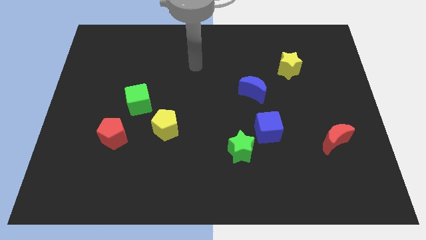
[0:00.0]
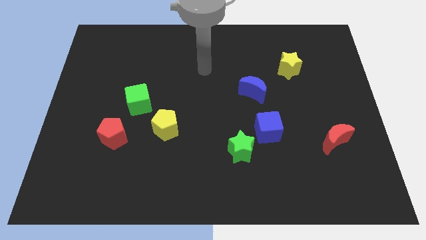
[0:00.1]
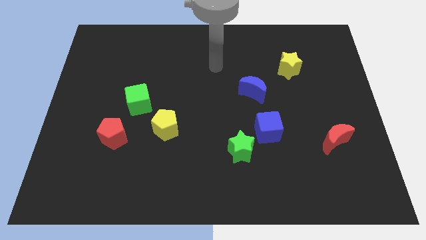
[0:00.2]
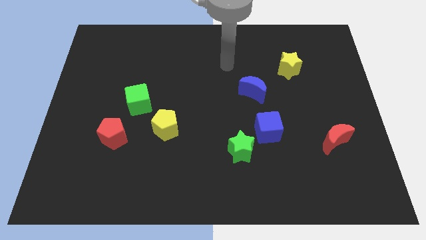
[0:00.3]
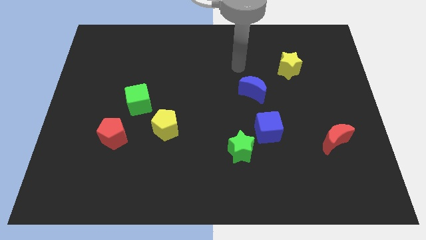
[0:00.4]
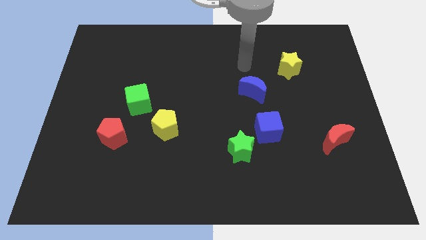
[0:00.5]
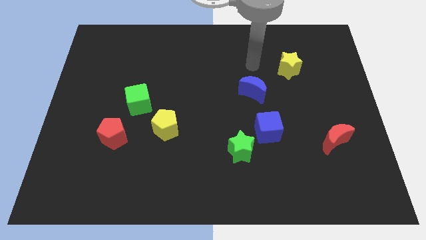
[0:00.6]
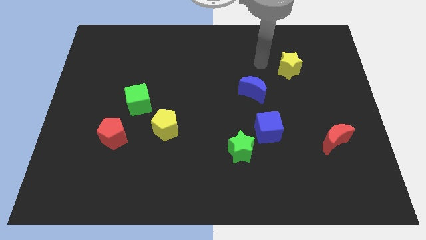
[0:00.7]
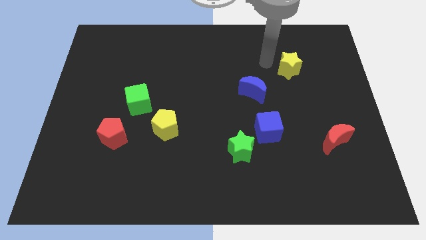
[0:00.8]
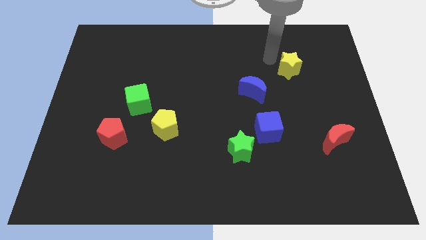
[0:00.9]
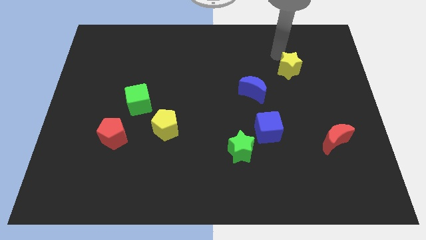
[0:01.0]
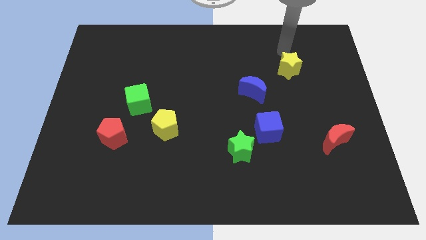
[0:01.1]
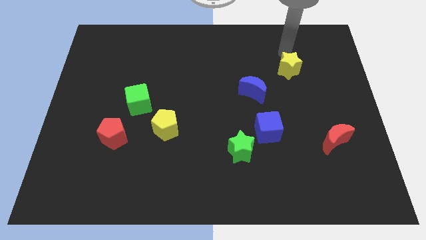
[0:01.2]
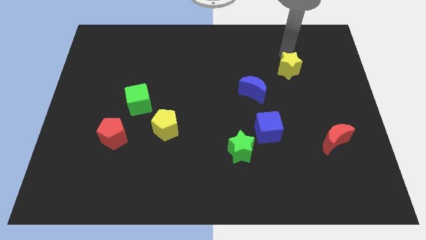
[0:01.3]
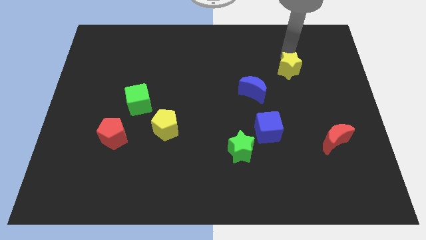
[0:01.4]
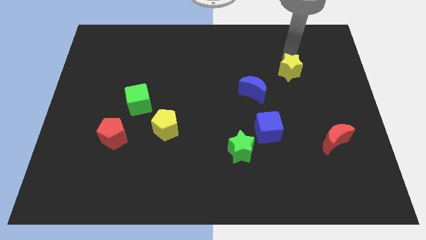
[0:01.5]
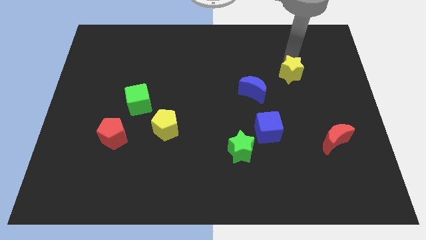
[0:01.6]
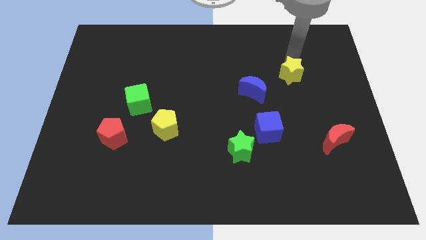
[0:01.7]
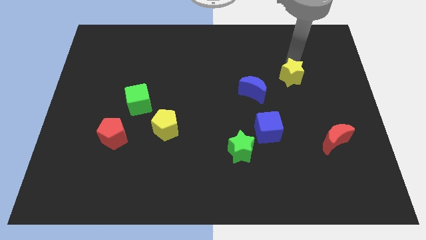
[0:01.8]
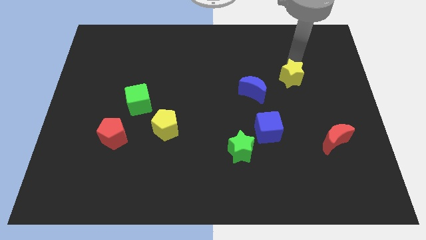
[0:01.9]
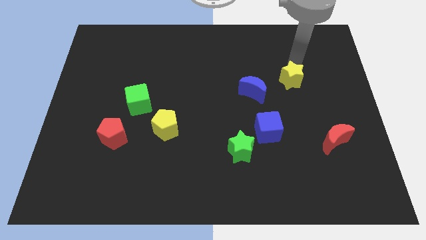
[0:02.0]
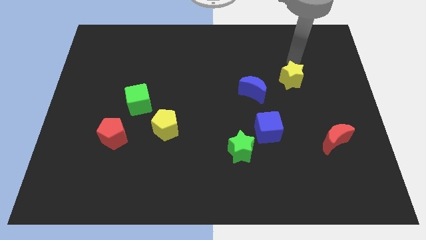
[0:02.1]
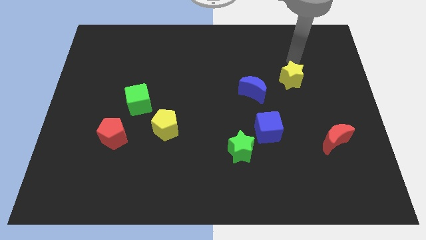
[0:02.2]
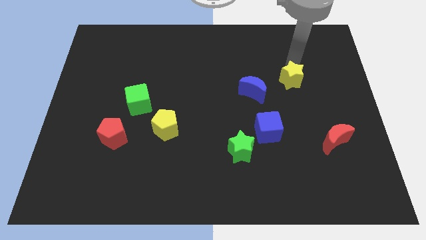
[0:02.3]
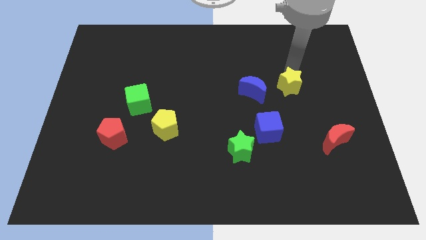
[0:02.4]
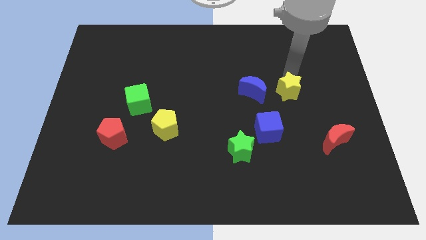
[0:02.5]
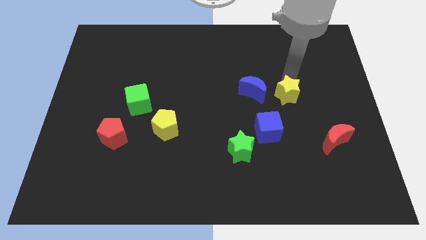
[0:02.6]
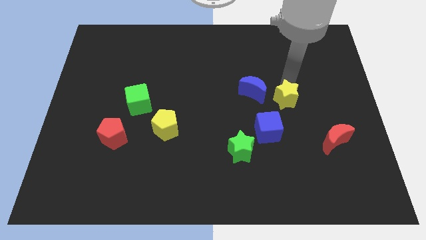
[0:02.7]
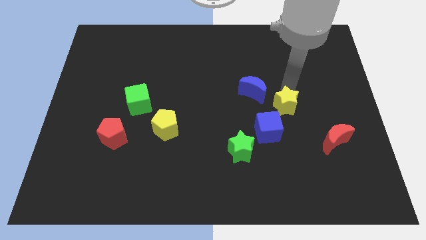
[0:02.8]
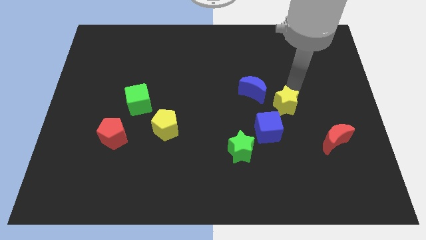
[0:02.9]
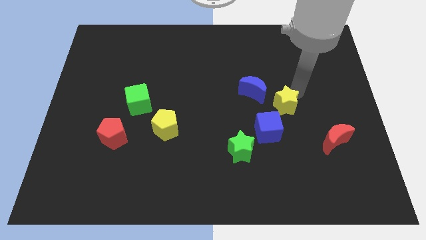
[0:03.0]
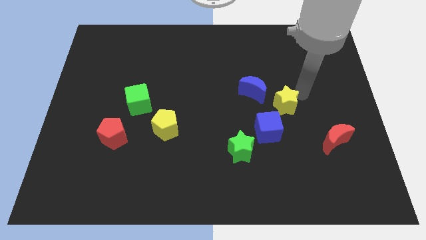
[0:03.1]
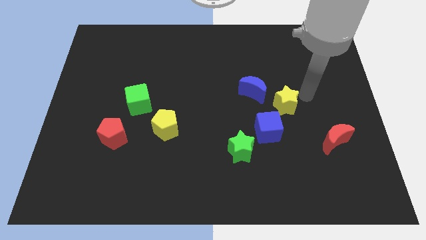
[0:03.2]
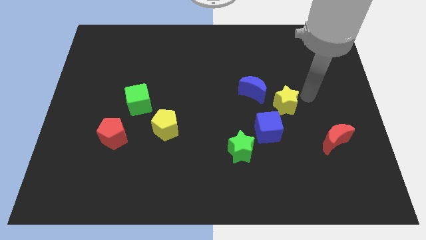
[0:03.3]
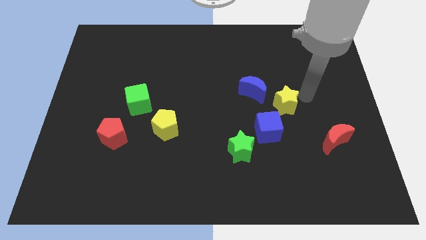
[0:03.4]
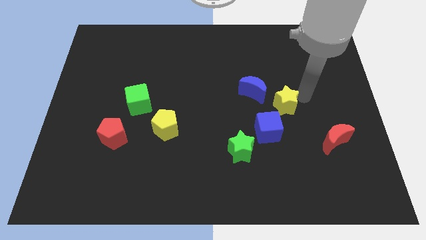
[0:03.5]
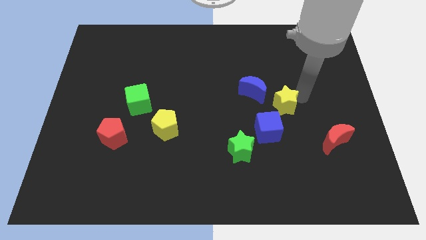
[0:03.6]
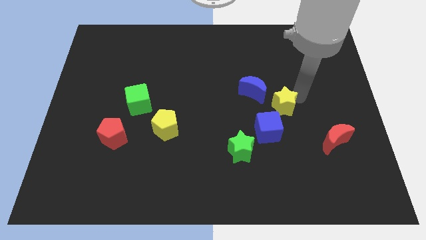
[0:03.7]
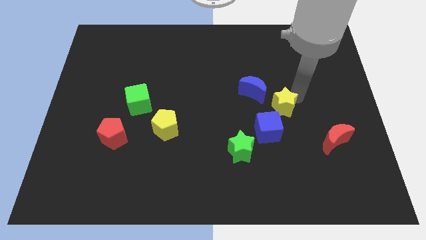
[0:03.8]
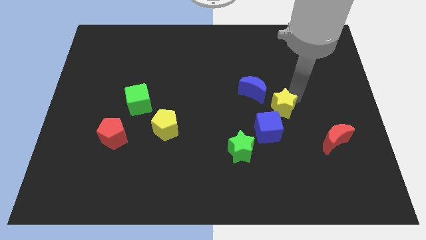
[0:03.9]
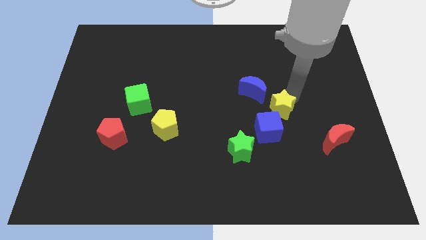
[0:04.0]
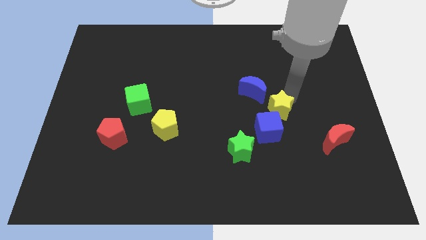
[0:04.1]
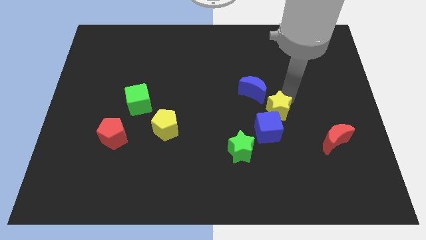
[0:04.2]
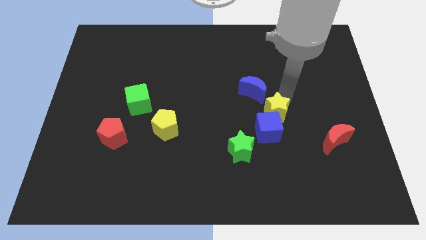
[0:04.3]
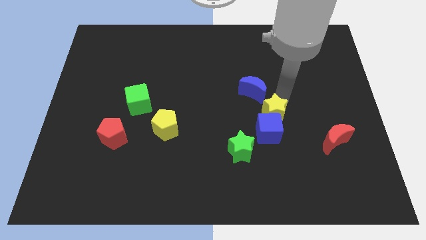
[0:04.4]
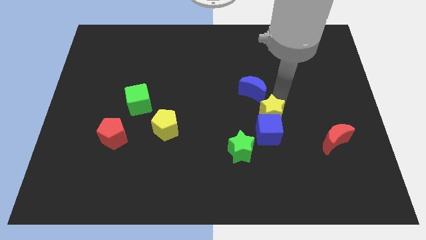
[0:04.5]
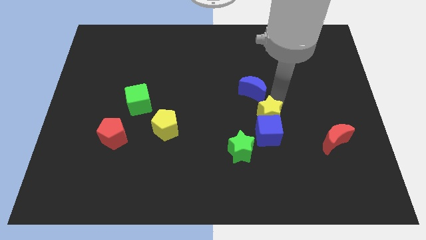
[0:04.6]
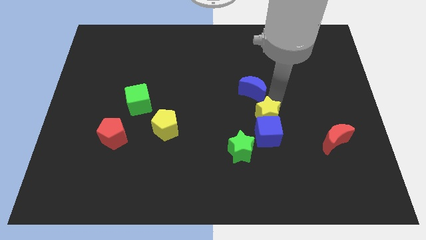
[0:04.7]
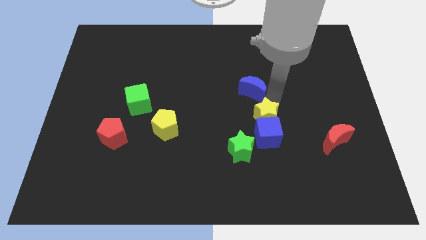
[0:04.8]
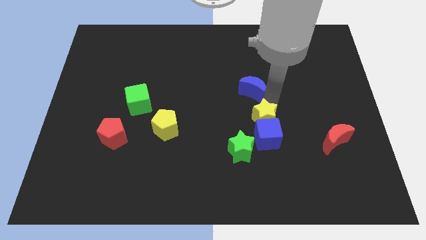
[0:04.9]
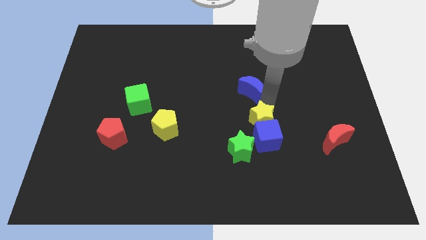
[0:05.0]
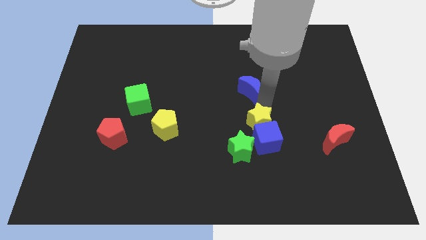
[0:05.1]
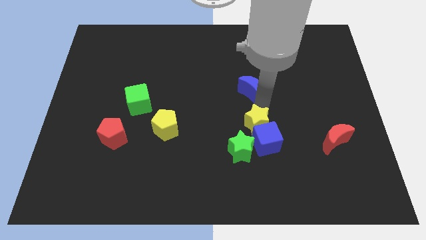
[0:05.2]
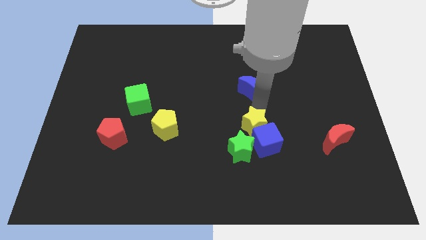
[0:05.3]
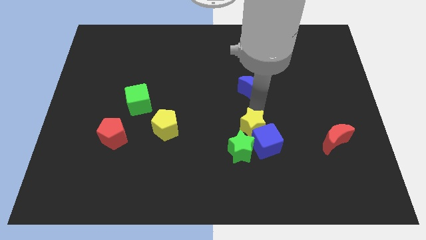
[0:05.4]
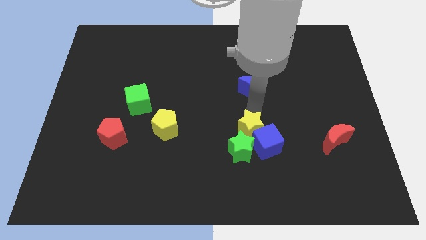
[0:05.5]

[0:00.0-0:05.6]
slide the yellow star downwards and to the left diagonally

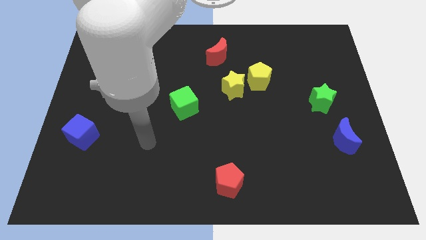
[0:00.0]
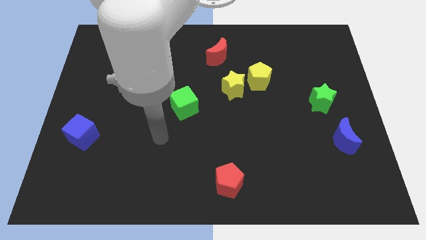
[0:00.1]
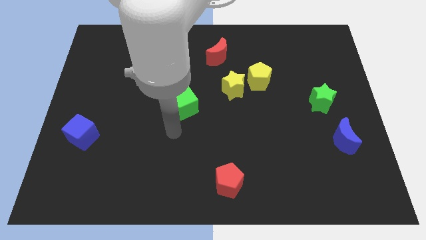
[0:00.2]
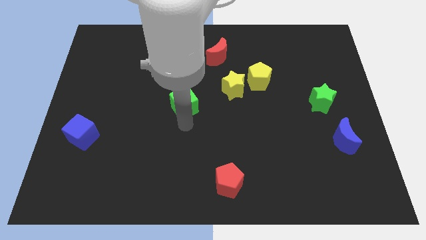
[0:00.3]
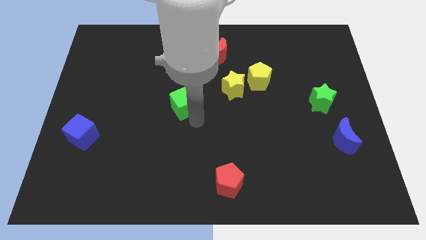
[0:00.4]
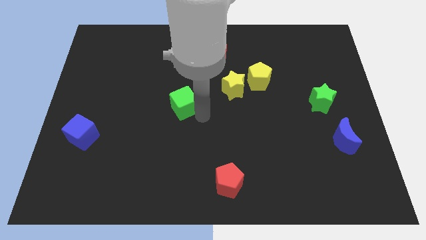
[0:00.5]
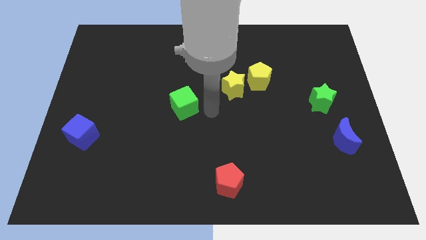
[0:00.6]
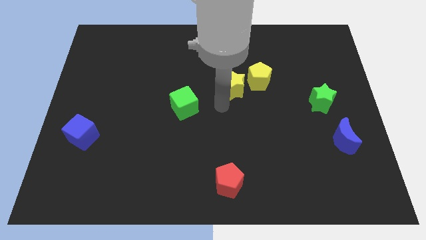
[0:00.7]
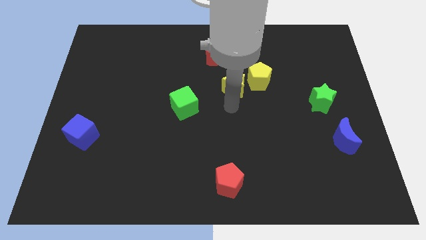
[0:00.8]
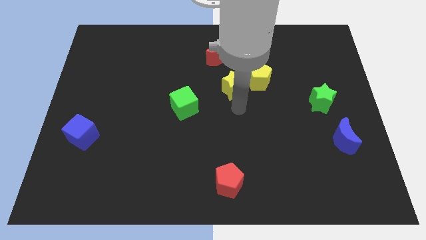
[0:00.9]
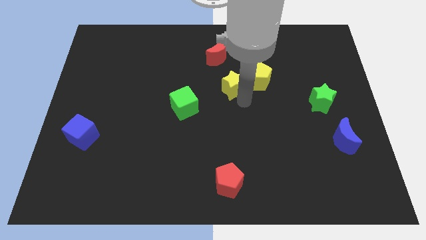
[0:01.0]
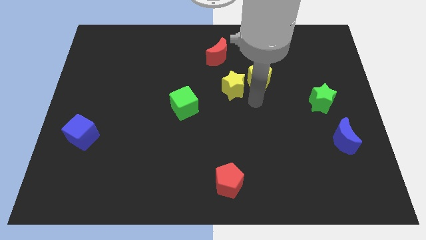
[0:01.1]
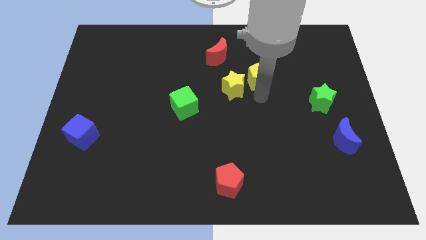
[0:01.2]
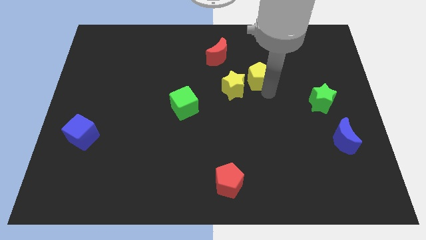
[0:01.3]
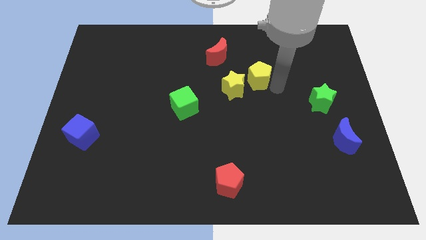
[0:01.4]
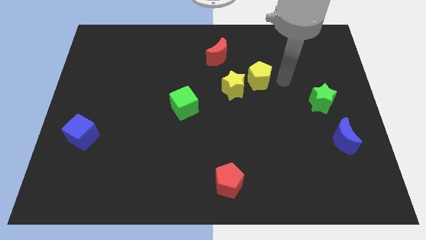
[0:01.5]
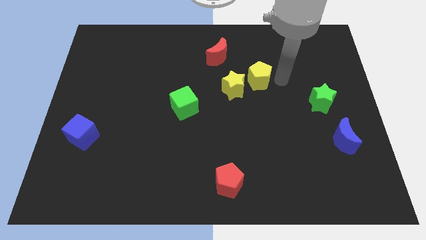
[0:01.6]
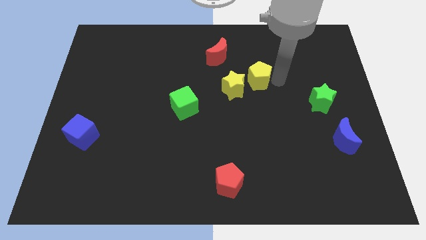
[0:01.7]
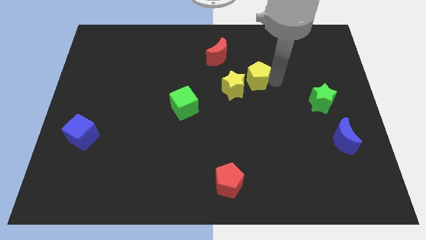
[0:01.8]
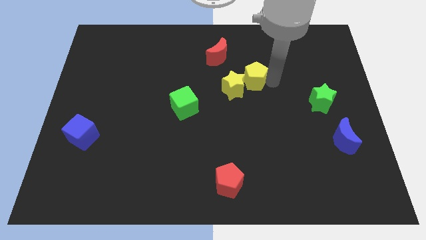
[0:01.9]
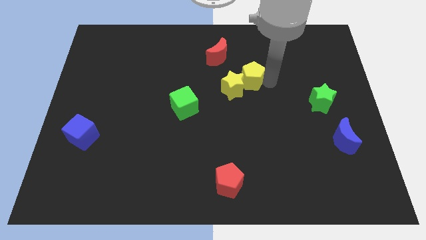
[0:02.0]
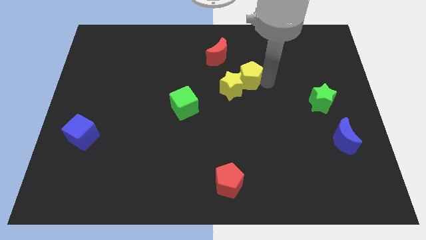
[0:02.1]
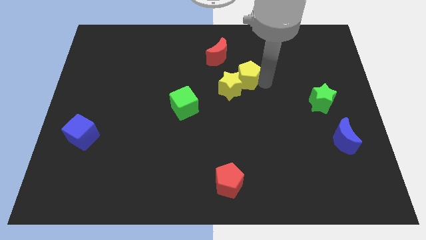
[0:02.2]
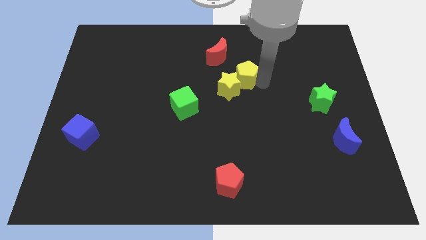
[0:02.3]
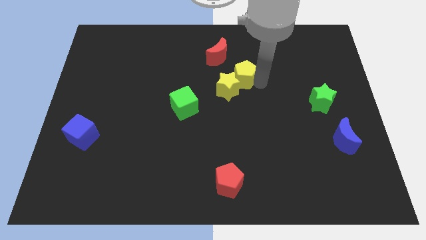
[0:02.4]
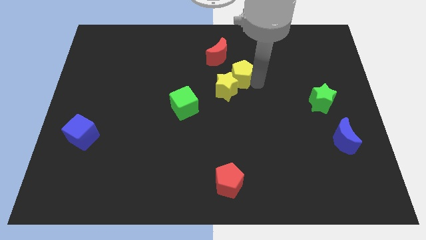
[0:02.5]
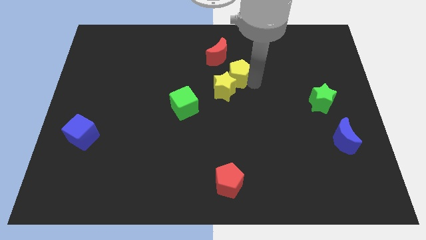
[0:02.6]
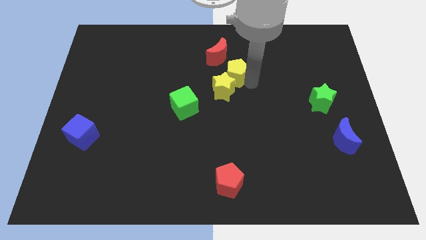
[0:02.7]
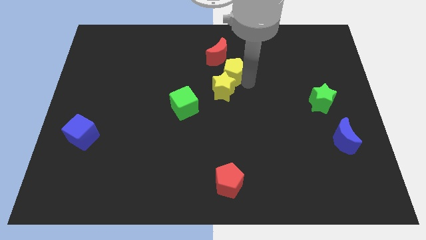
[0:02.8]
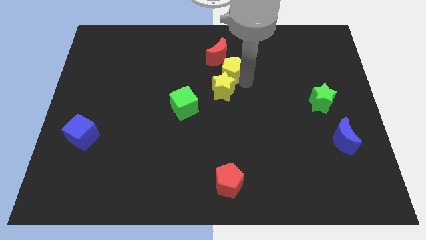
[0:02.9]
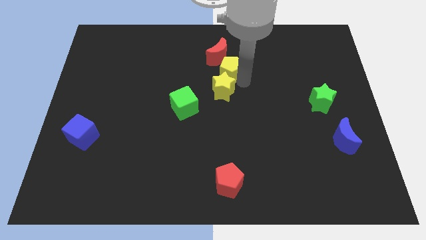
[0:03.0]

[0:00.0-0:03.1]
slightly push the yellow pentagon left
